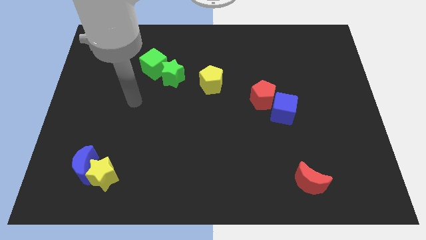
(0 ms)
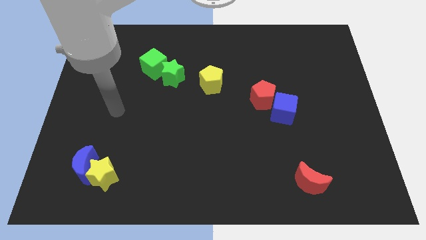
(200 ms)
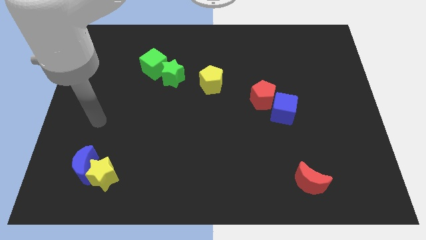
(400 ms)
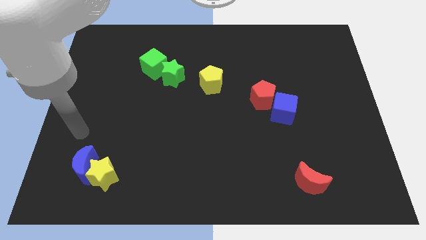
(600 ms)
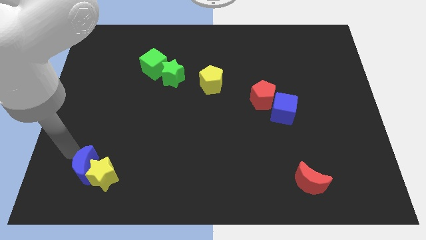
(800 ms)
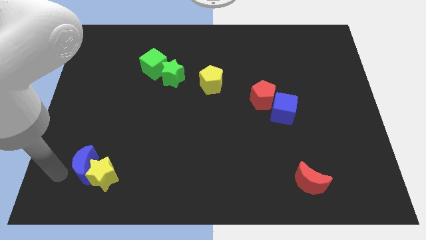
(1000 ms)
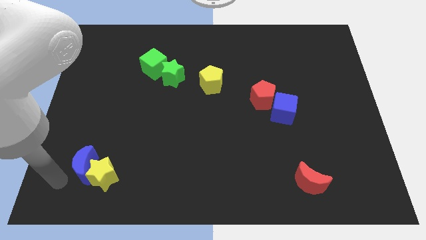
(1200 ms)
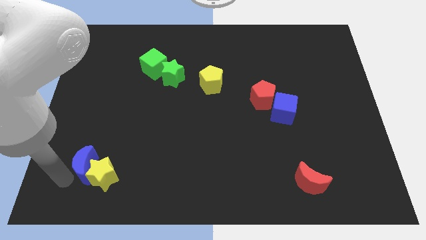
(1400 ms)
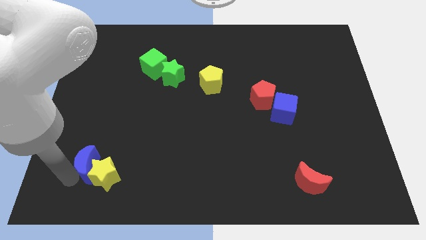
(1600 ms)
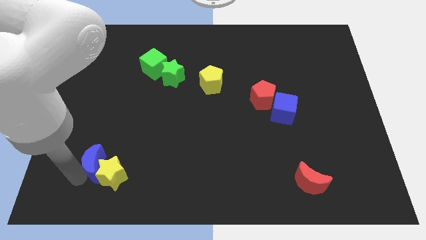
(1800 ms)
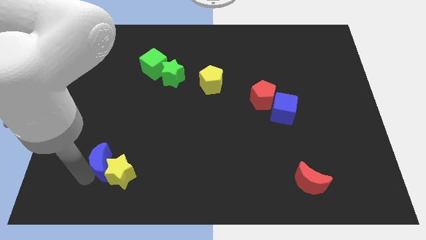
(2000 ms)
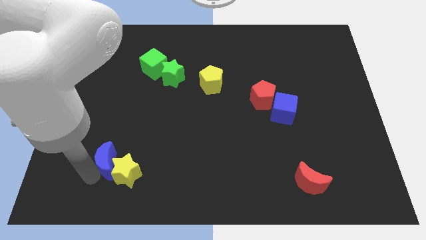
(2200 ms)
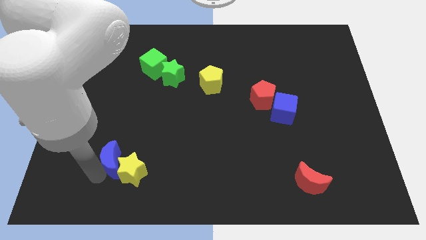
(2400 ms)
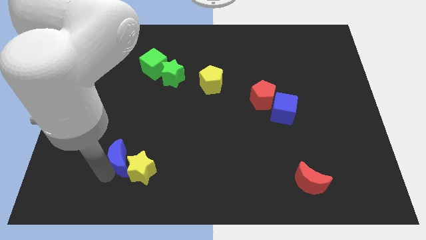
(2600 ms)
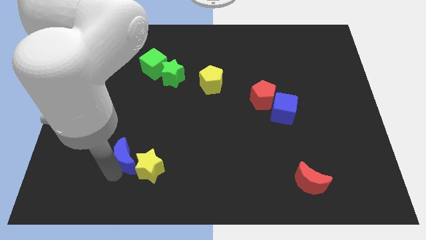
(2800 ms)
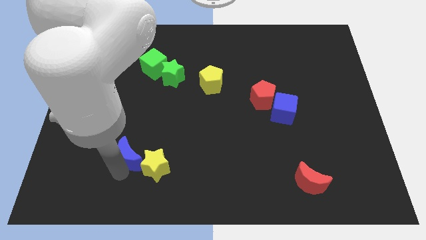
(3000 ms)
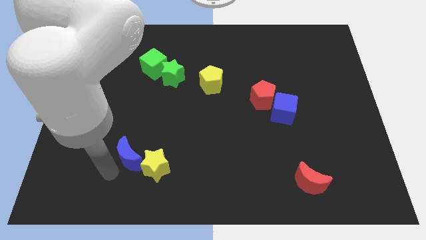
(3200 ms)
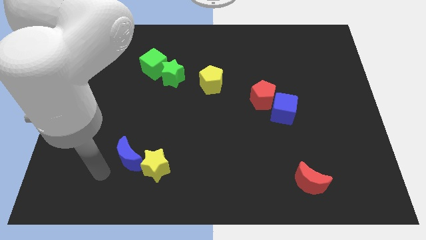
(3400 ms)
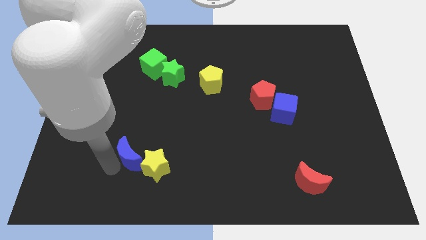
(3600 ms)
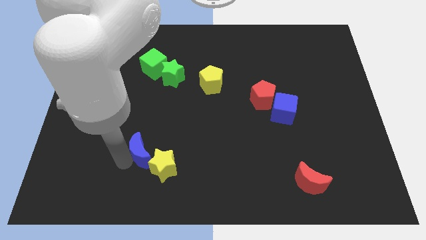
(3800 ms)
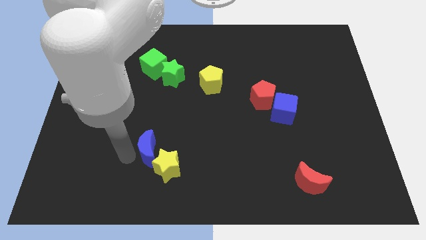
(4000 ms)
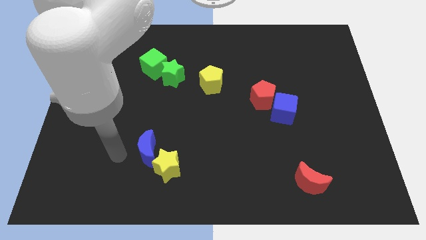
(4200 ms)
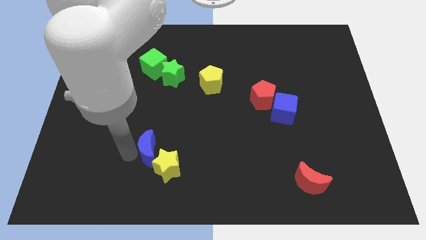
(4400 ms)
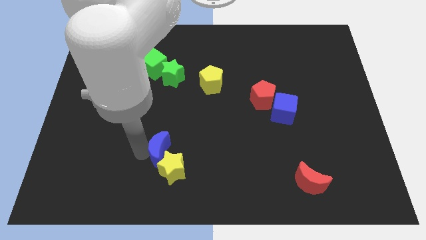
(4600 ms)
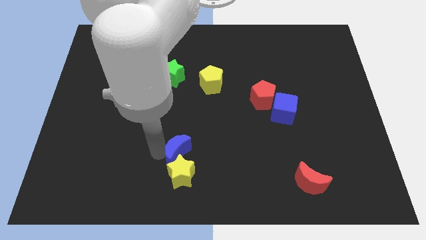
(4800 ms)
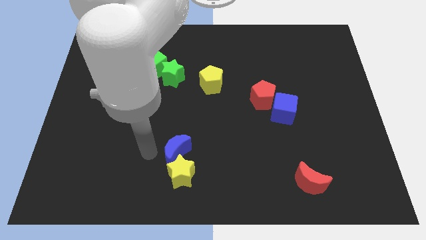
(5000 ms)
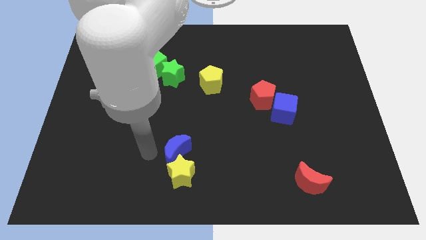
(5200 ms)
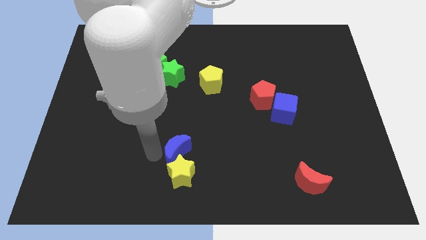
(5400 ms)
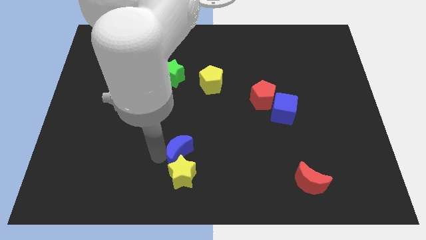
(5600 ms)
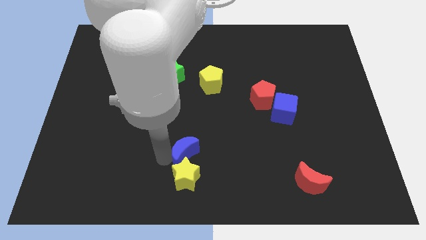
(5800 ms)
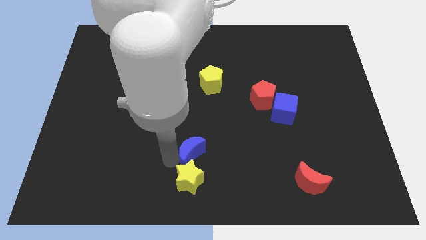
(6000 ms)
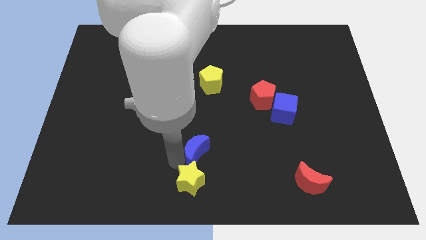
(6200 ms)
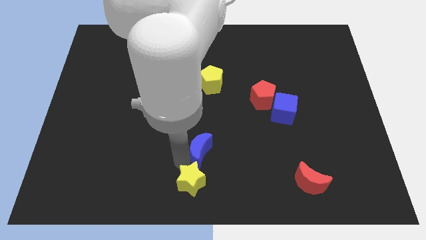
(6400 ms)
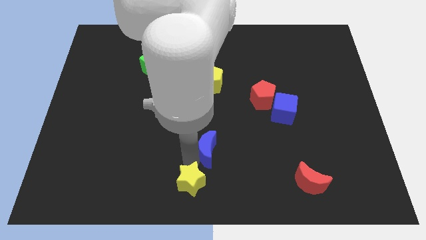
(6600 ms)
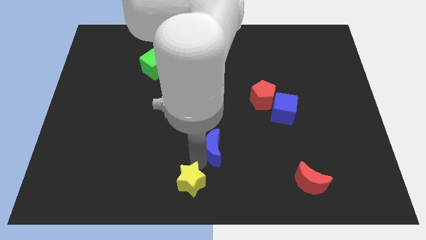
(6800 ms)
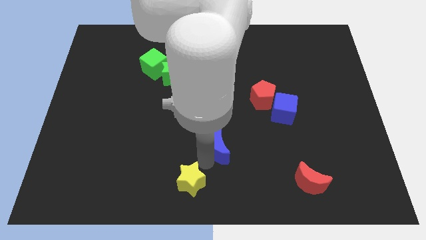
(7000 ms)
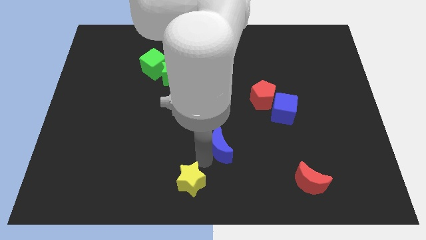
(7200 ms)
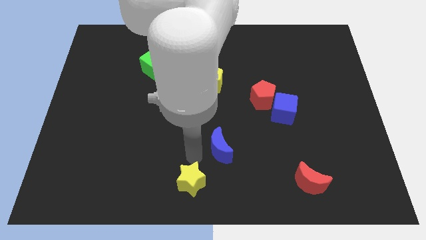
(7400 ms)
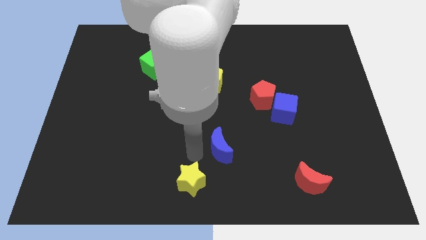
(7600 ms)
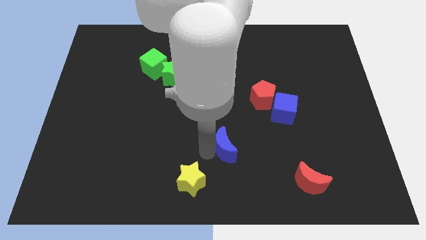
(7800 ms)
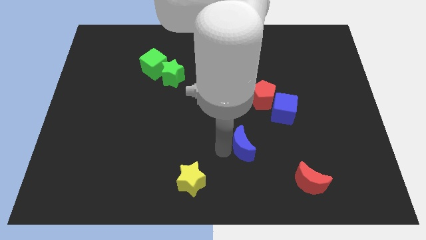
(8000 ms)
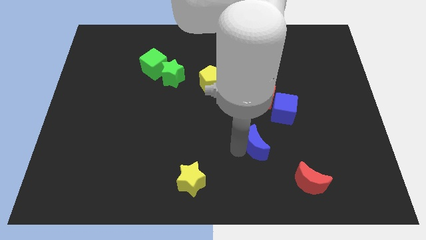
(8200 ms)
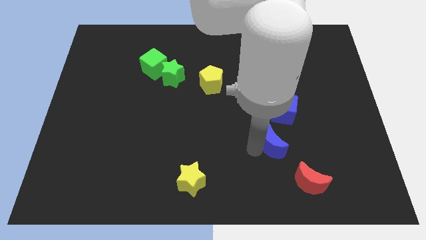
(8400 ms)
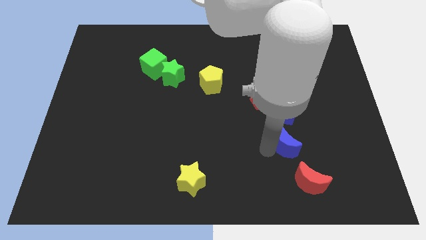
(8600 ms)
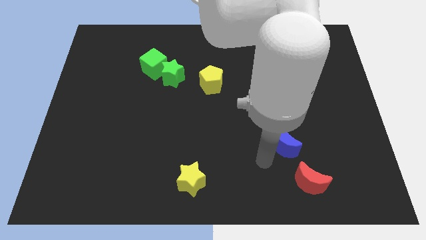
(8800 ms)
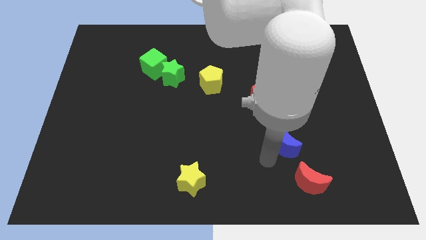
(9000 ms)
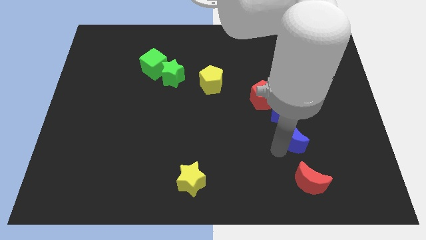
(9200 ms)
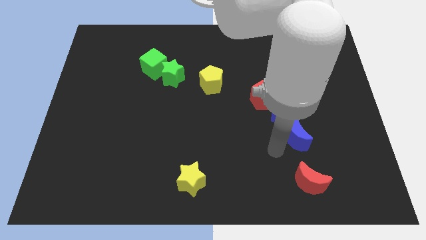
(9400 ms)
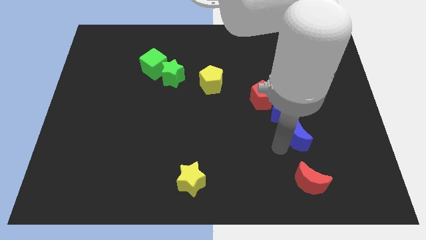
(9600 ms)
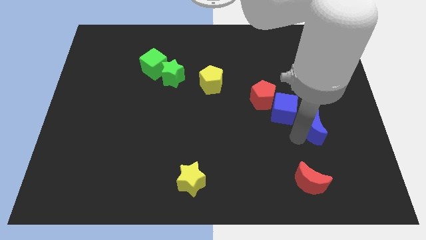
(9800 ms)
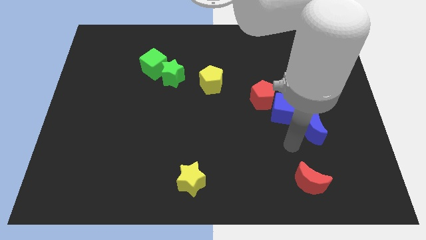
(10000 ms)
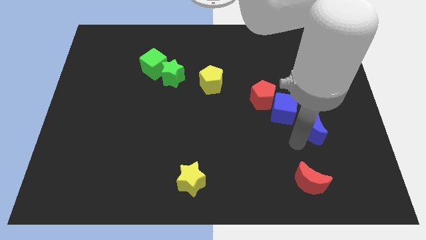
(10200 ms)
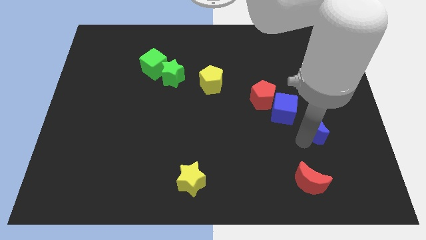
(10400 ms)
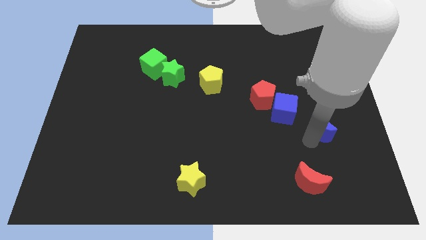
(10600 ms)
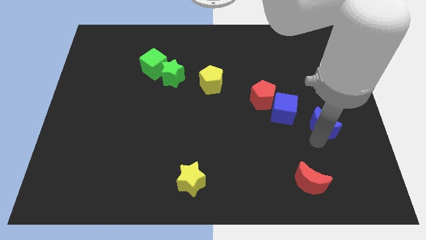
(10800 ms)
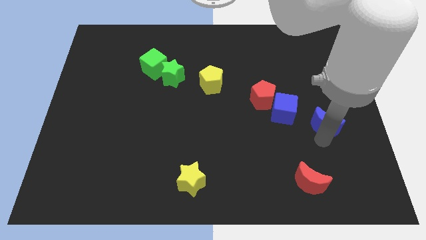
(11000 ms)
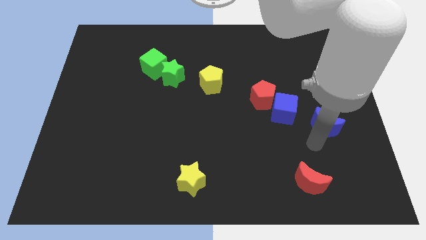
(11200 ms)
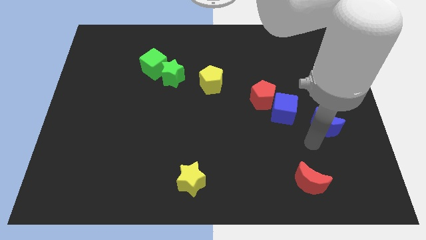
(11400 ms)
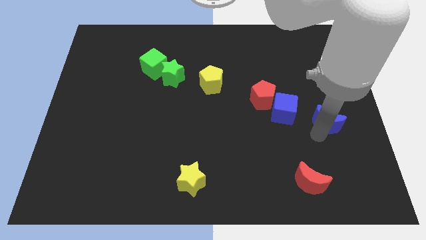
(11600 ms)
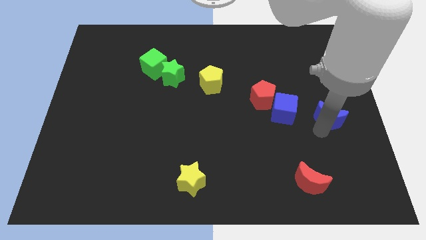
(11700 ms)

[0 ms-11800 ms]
slide the blue moon to the right side
